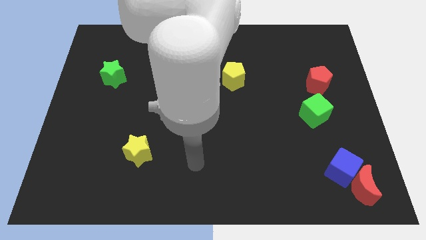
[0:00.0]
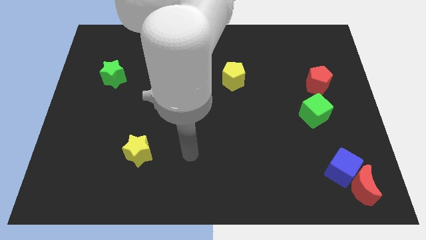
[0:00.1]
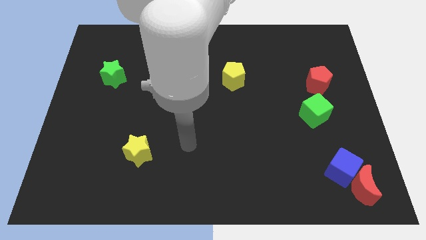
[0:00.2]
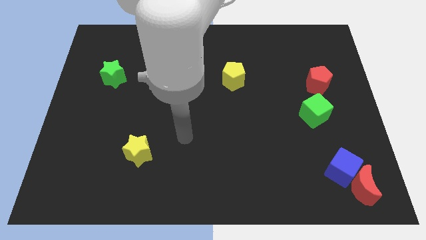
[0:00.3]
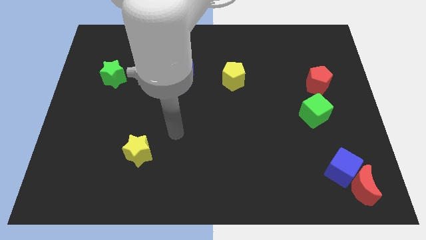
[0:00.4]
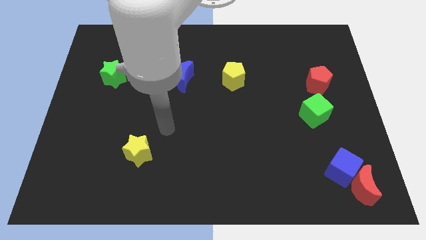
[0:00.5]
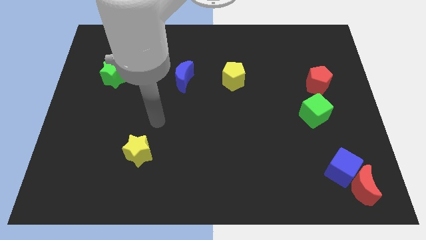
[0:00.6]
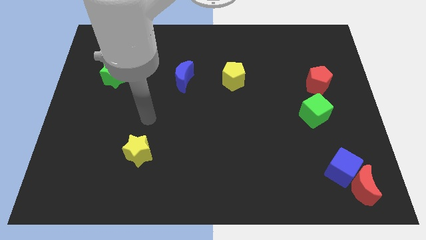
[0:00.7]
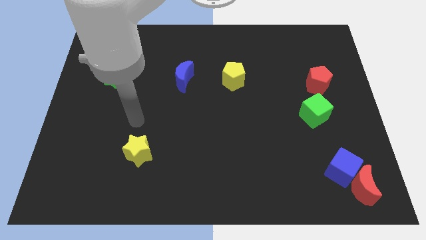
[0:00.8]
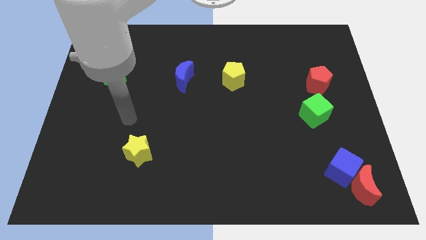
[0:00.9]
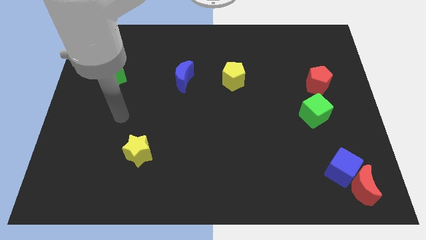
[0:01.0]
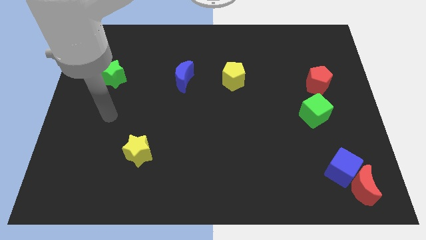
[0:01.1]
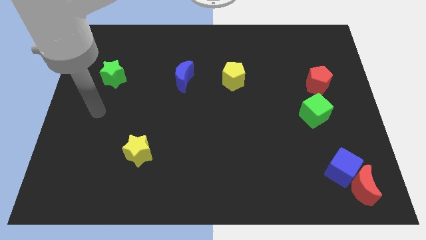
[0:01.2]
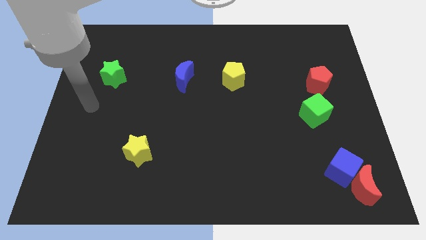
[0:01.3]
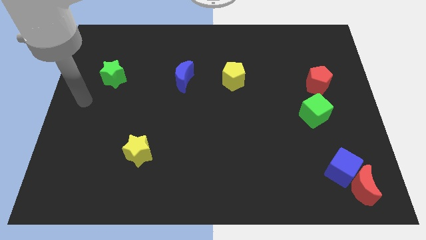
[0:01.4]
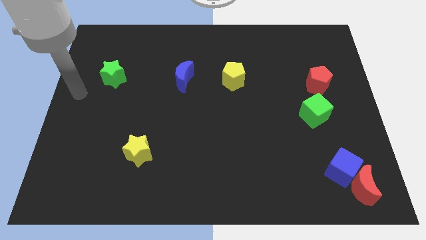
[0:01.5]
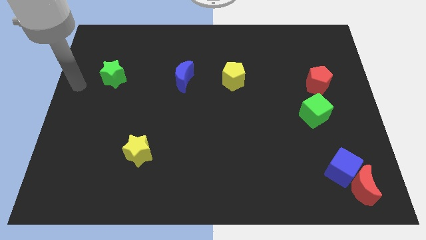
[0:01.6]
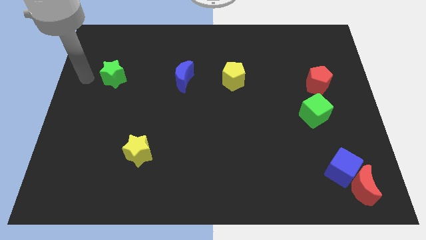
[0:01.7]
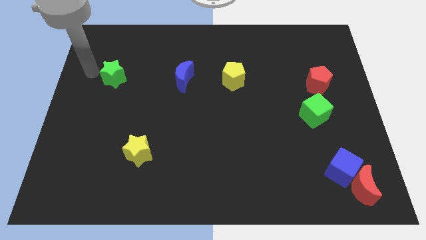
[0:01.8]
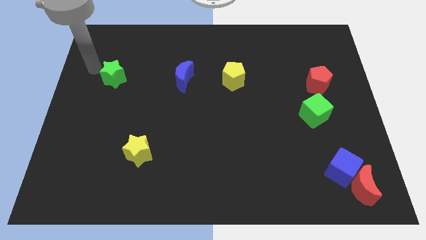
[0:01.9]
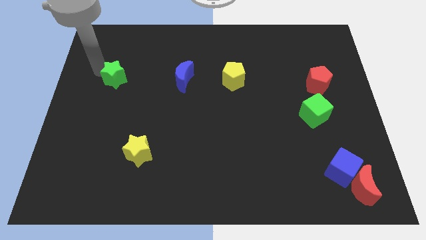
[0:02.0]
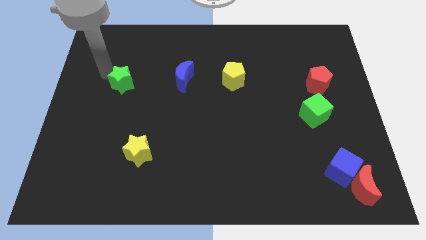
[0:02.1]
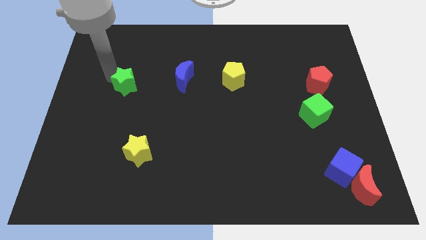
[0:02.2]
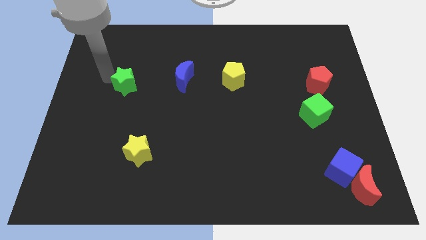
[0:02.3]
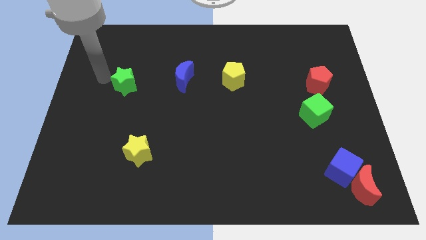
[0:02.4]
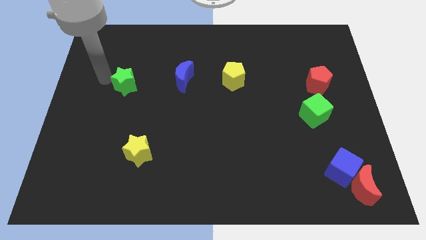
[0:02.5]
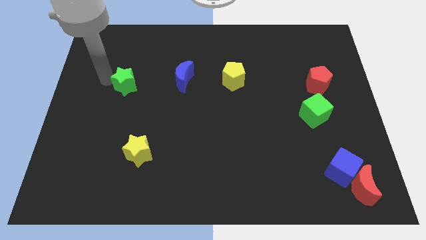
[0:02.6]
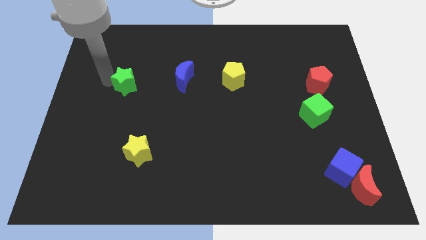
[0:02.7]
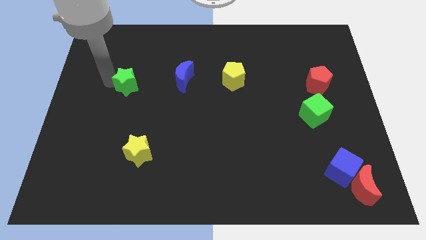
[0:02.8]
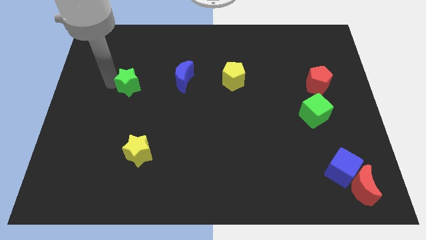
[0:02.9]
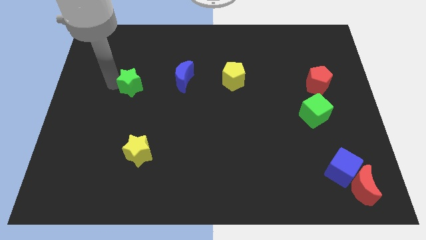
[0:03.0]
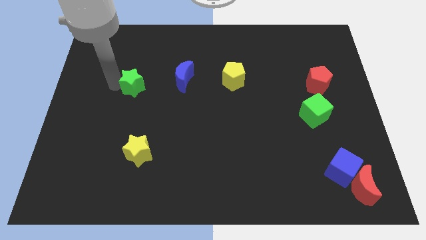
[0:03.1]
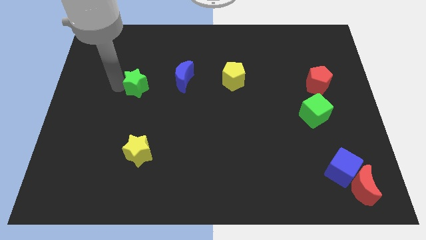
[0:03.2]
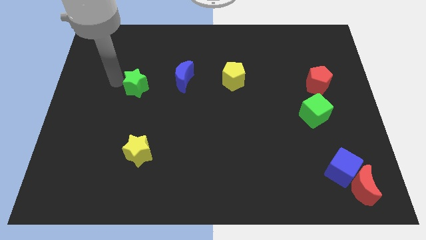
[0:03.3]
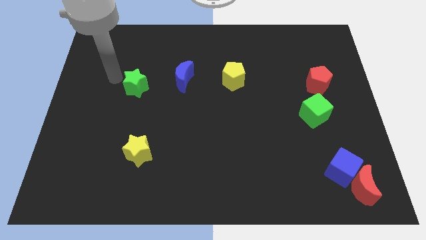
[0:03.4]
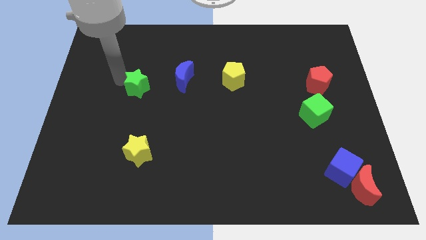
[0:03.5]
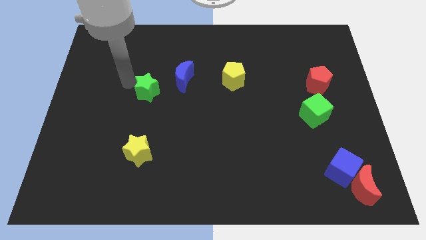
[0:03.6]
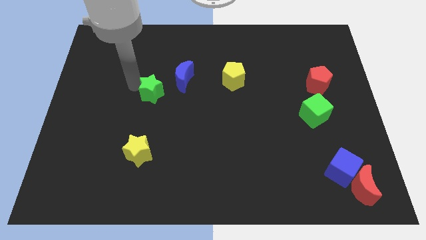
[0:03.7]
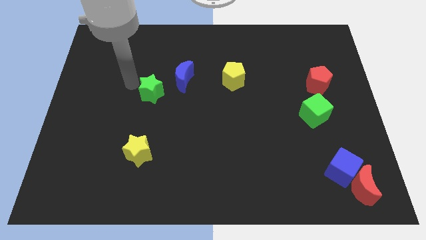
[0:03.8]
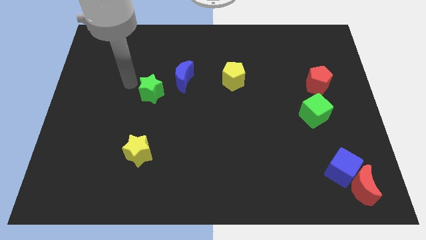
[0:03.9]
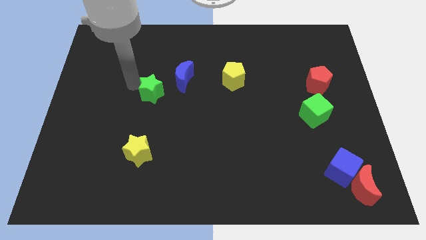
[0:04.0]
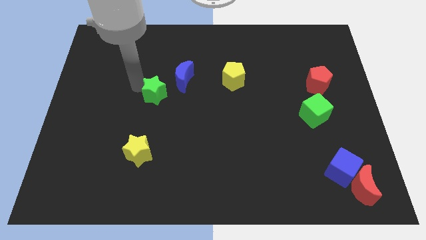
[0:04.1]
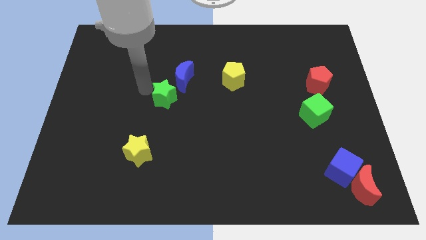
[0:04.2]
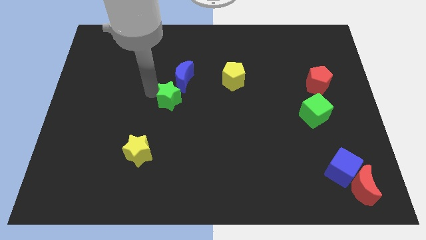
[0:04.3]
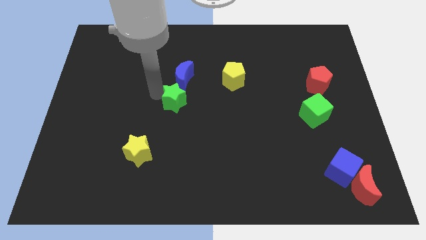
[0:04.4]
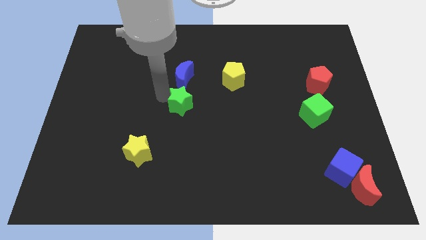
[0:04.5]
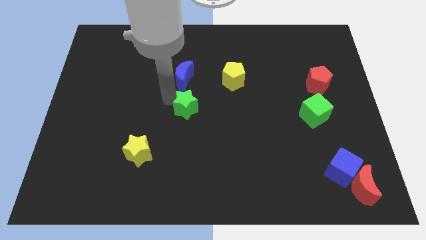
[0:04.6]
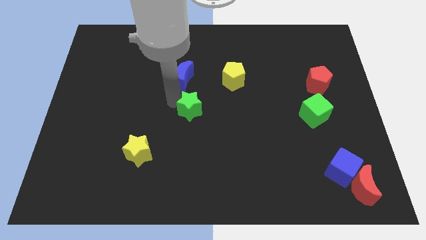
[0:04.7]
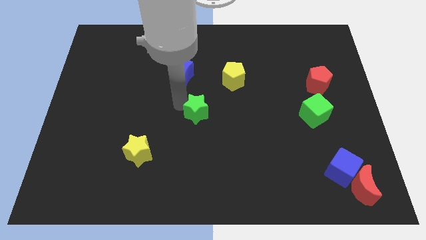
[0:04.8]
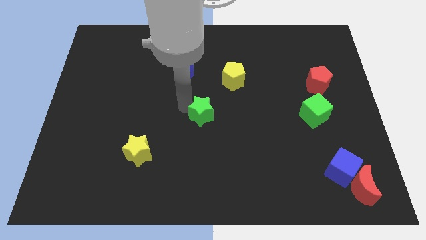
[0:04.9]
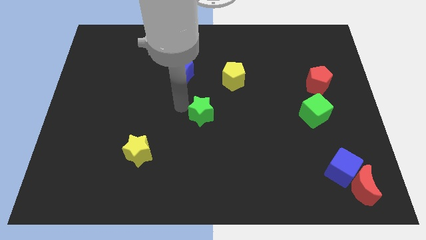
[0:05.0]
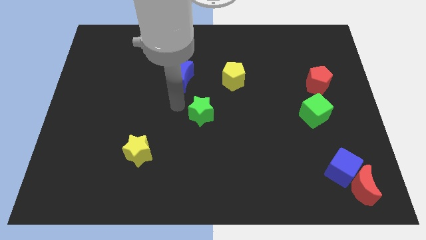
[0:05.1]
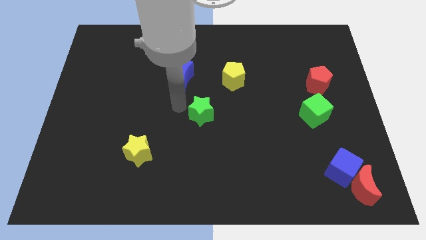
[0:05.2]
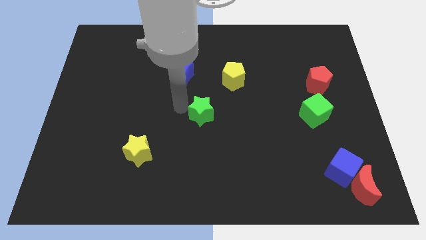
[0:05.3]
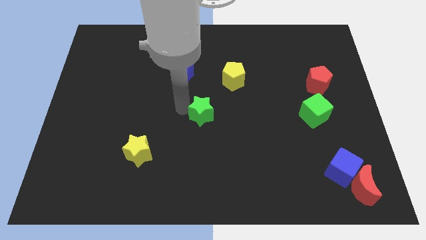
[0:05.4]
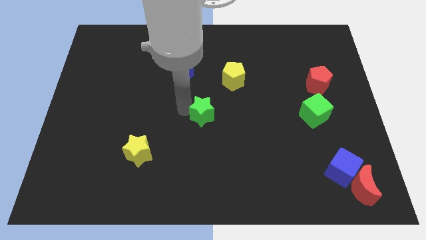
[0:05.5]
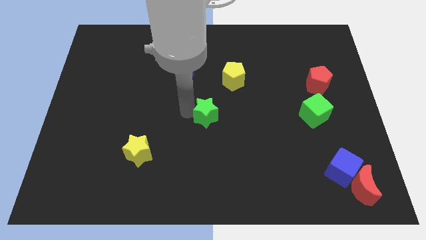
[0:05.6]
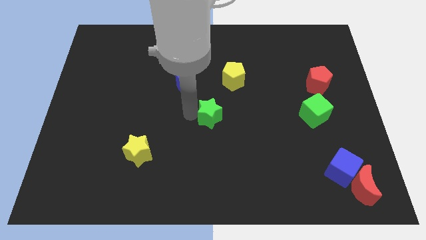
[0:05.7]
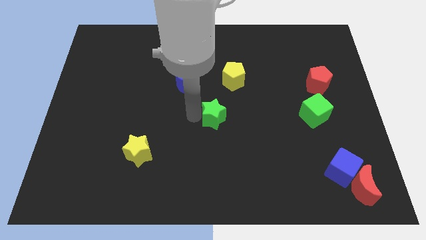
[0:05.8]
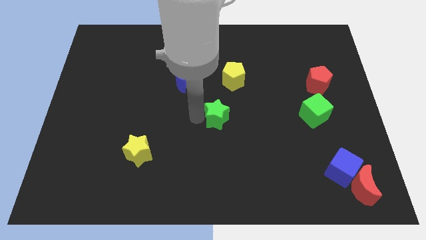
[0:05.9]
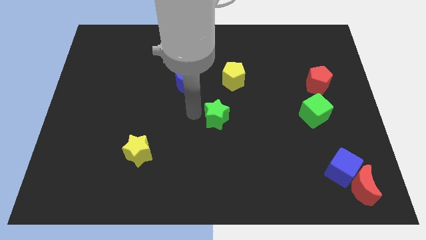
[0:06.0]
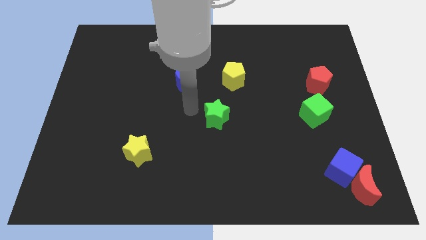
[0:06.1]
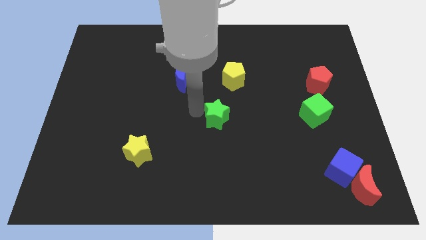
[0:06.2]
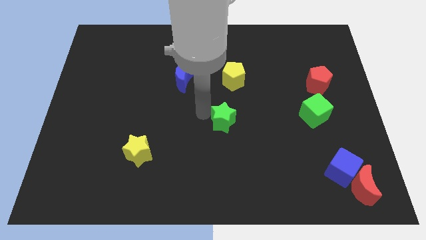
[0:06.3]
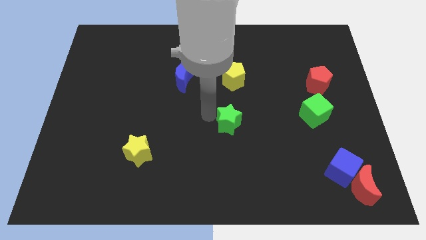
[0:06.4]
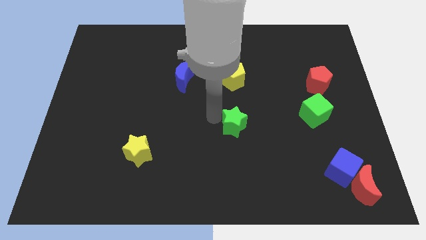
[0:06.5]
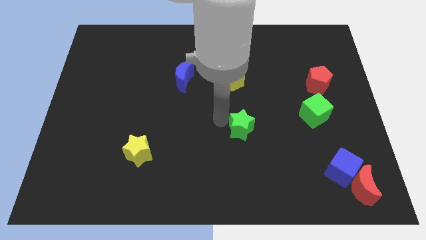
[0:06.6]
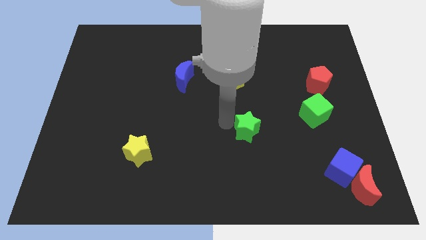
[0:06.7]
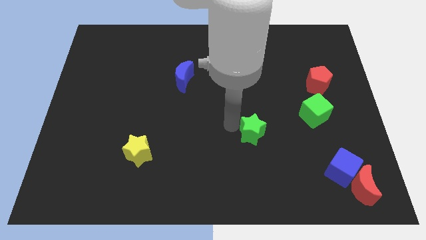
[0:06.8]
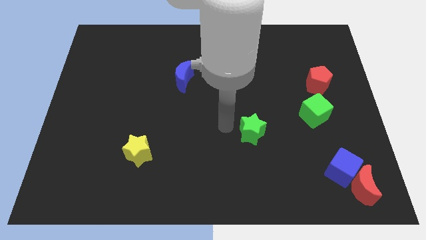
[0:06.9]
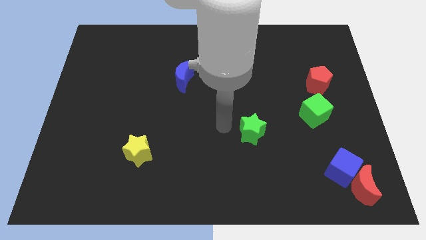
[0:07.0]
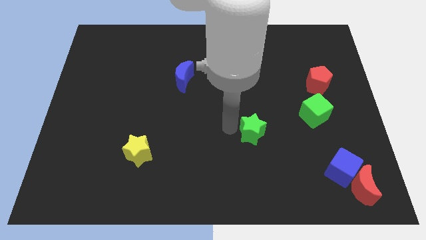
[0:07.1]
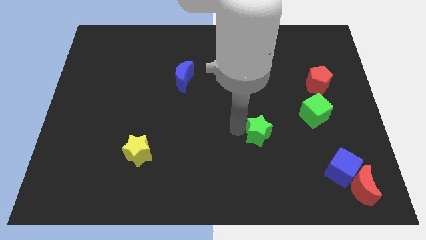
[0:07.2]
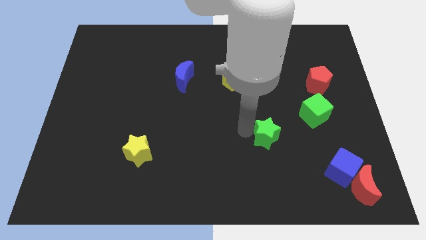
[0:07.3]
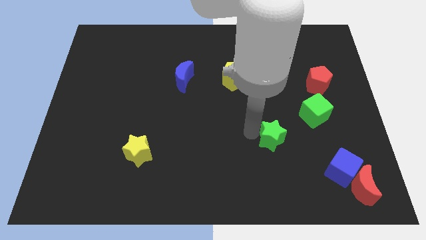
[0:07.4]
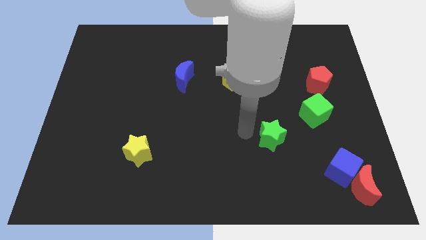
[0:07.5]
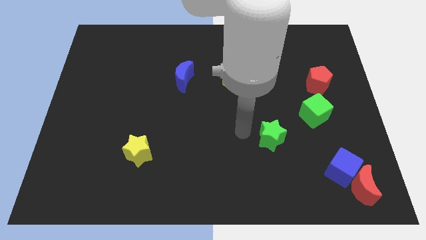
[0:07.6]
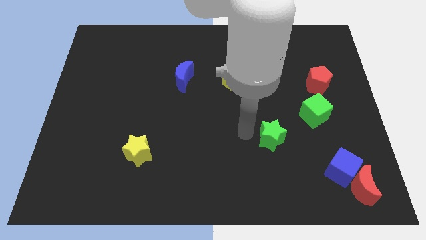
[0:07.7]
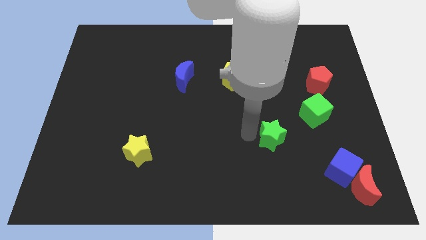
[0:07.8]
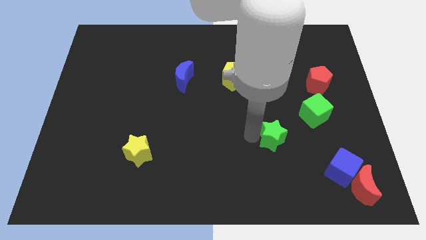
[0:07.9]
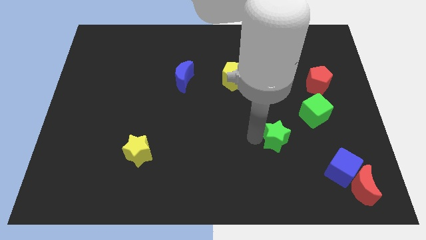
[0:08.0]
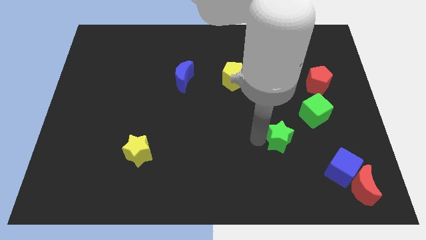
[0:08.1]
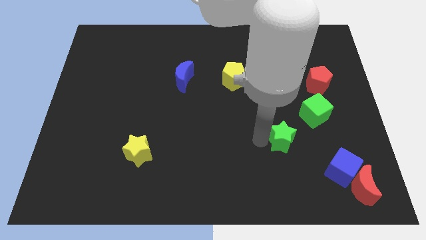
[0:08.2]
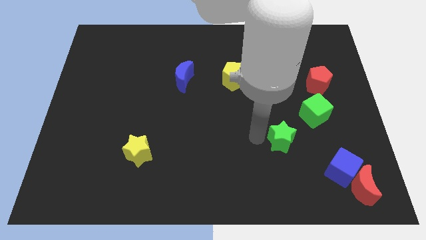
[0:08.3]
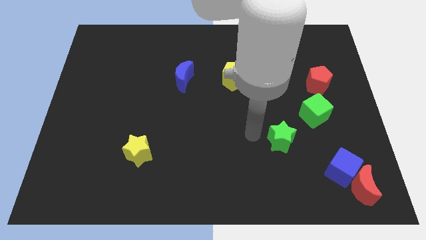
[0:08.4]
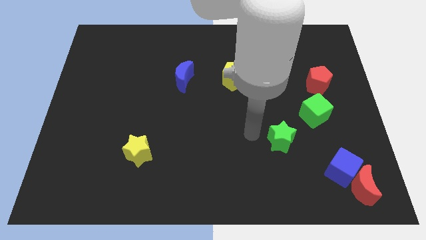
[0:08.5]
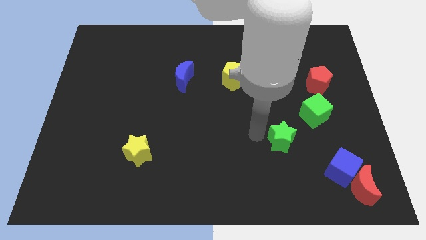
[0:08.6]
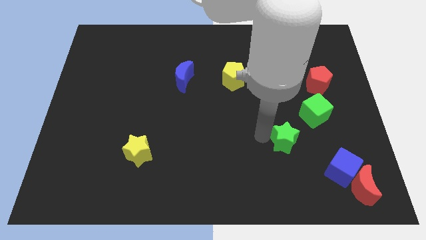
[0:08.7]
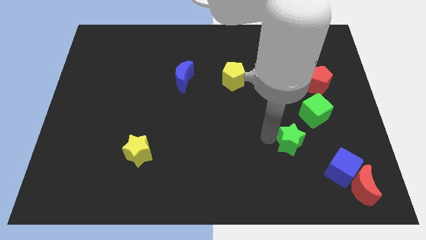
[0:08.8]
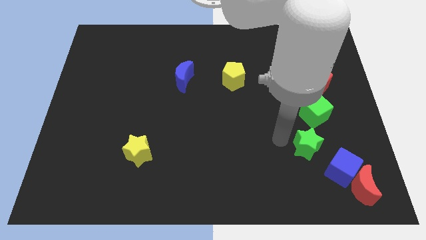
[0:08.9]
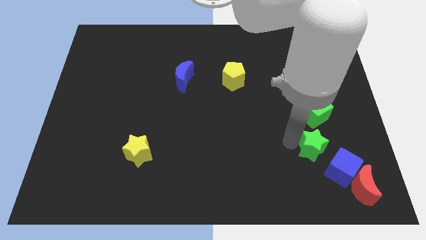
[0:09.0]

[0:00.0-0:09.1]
move the green star to the top left side of the red moon
